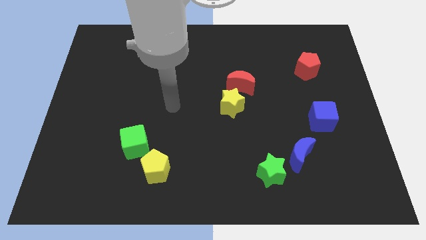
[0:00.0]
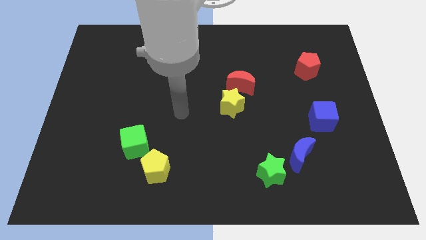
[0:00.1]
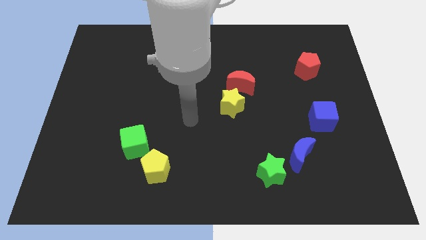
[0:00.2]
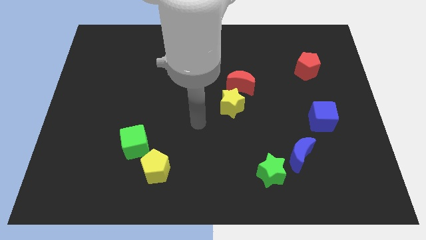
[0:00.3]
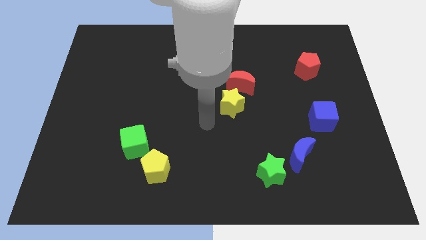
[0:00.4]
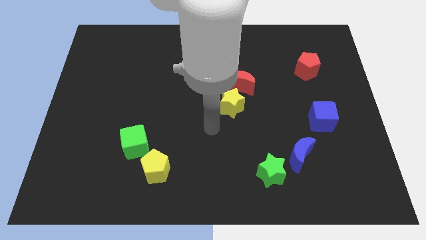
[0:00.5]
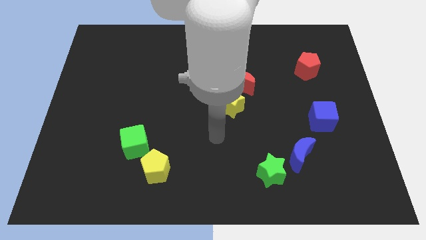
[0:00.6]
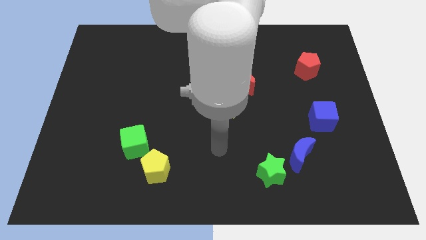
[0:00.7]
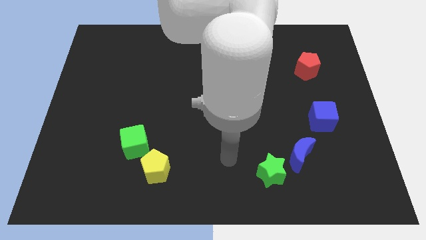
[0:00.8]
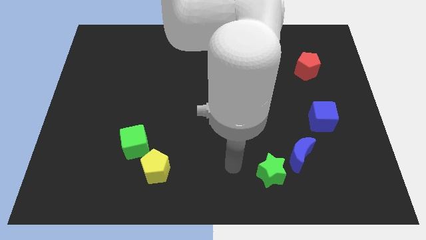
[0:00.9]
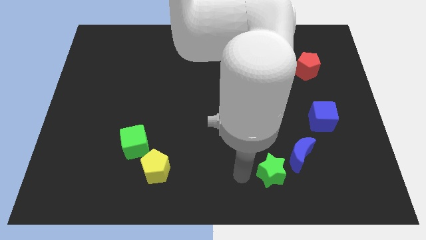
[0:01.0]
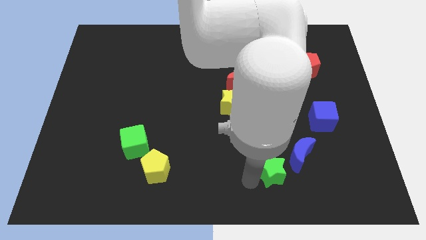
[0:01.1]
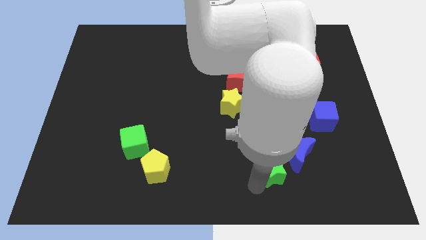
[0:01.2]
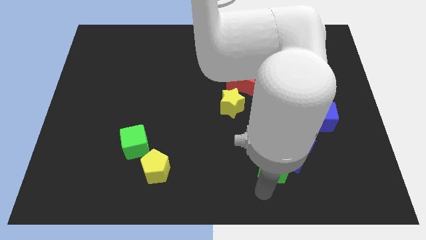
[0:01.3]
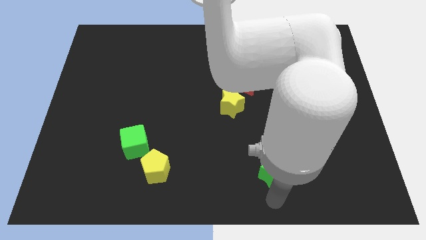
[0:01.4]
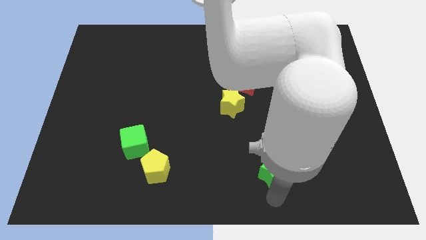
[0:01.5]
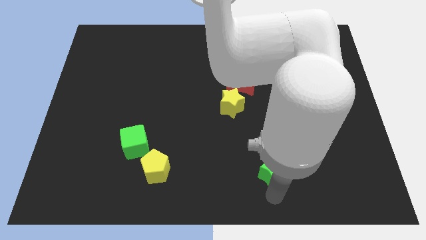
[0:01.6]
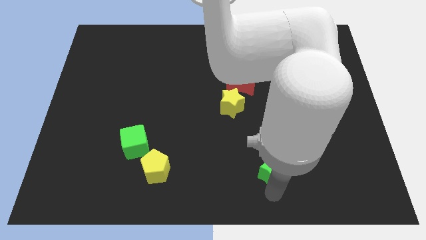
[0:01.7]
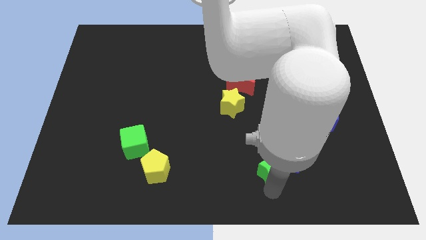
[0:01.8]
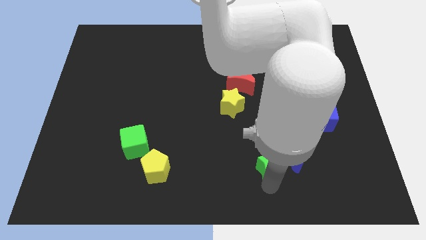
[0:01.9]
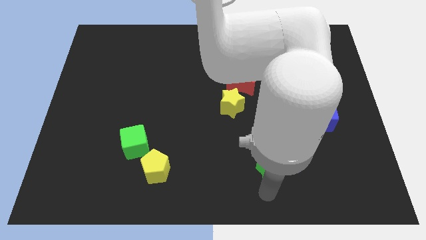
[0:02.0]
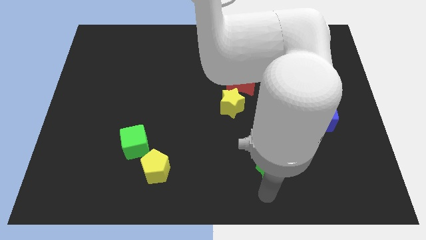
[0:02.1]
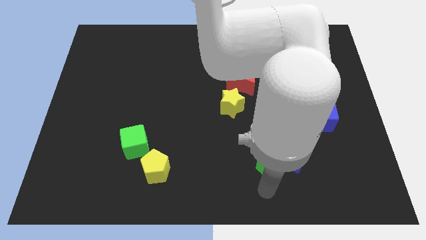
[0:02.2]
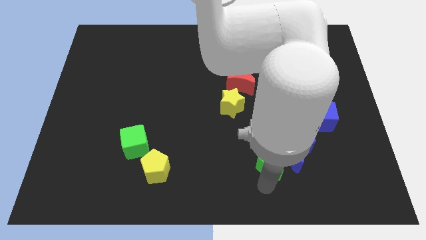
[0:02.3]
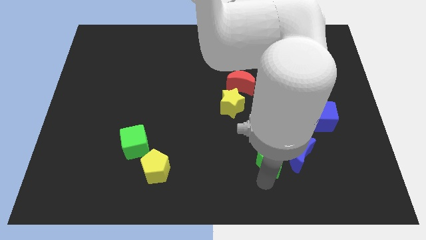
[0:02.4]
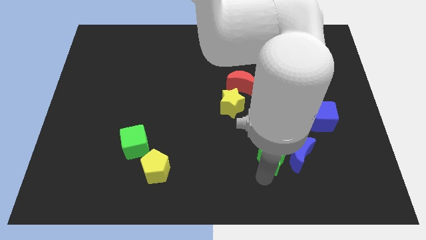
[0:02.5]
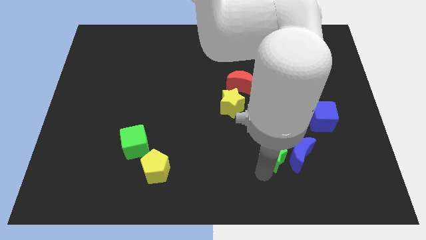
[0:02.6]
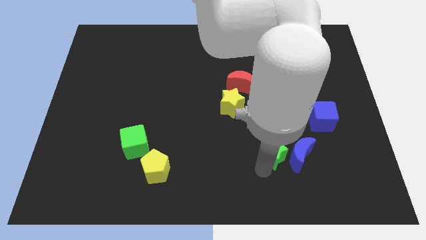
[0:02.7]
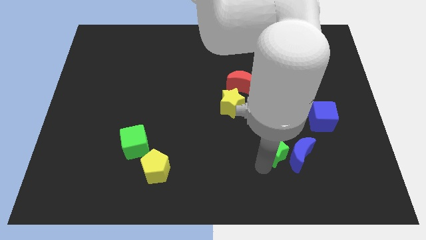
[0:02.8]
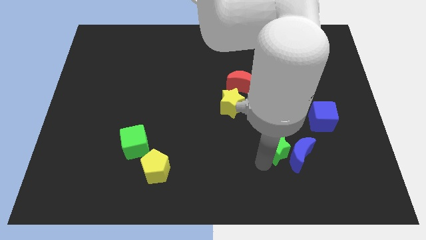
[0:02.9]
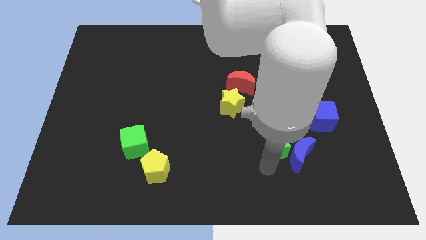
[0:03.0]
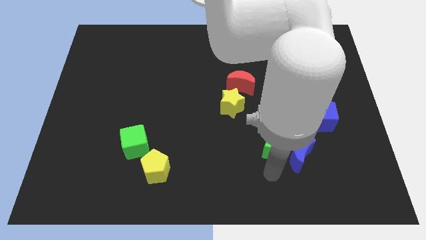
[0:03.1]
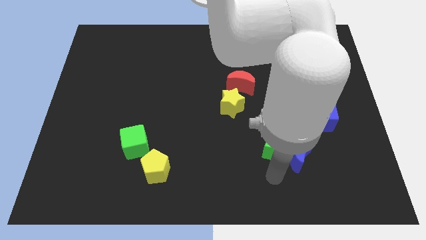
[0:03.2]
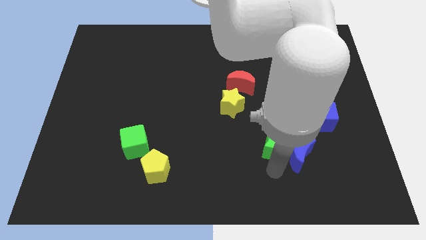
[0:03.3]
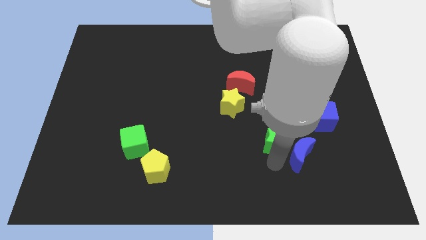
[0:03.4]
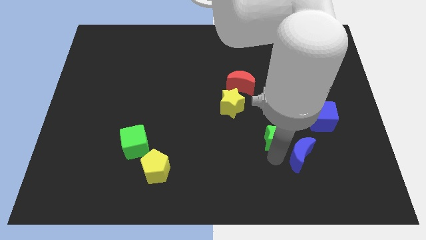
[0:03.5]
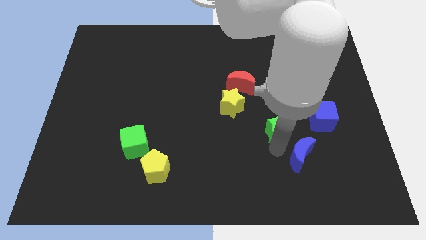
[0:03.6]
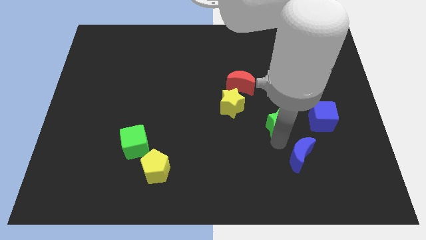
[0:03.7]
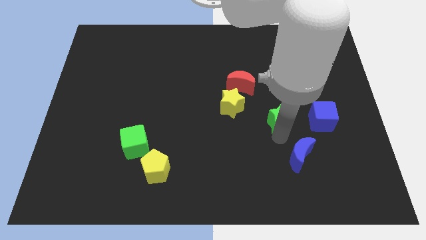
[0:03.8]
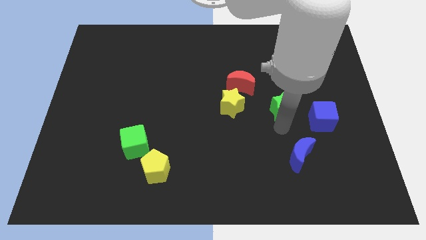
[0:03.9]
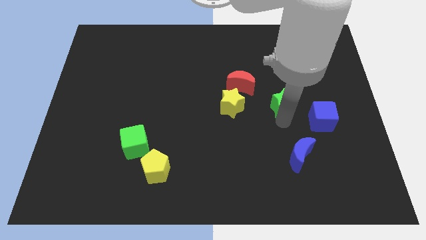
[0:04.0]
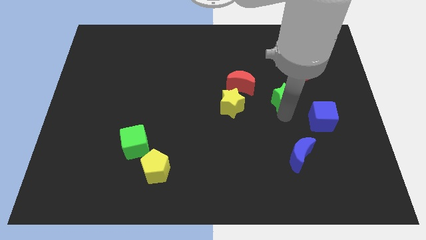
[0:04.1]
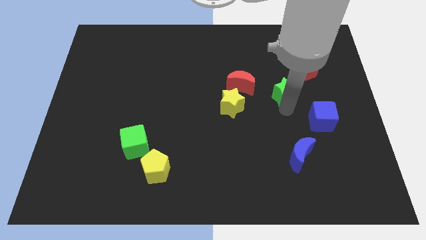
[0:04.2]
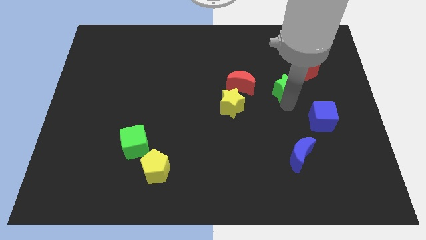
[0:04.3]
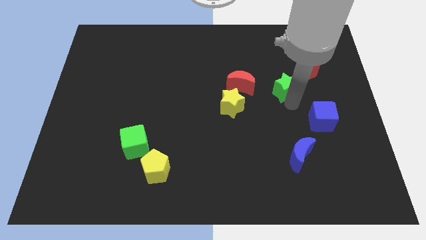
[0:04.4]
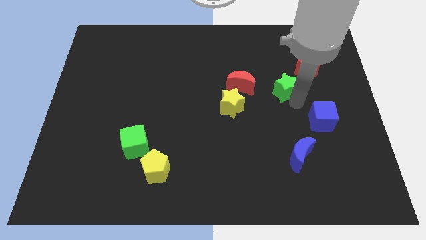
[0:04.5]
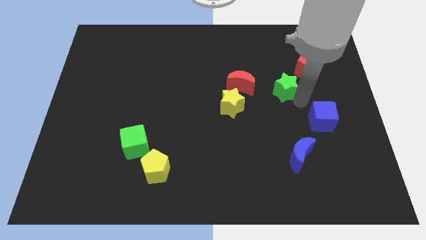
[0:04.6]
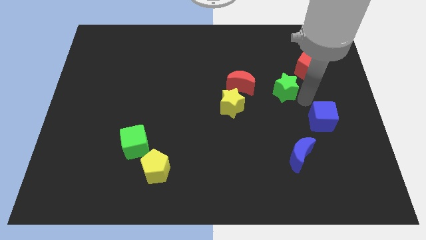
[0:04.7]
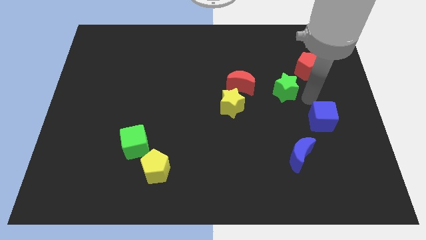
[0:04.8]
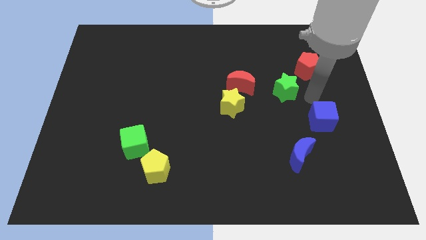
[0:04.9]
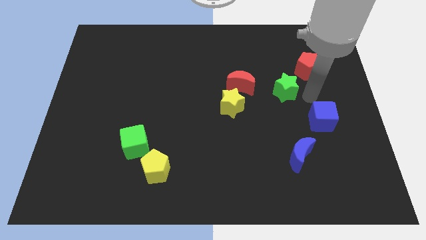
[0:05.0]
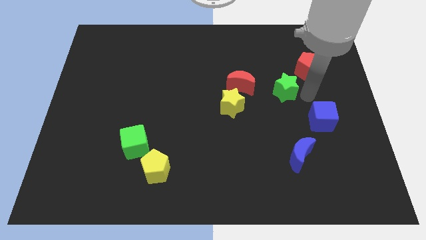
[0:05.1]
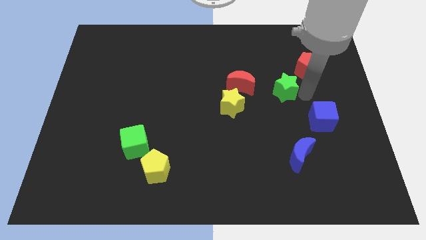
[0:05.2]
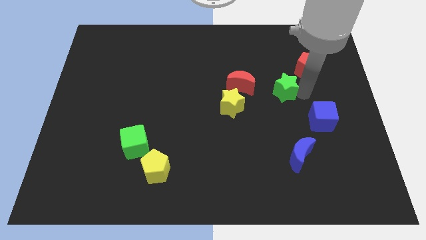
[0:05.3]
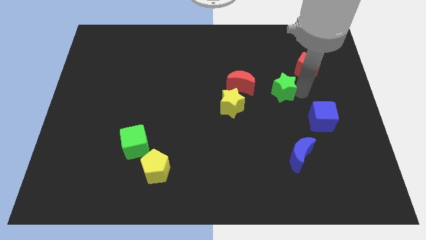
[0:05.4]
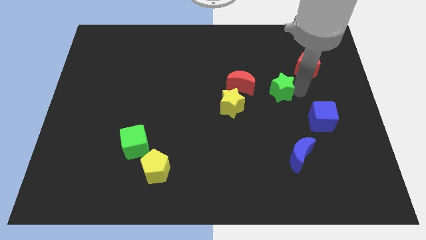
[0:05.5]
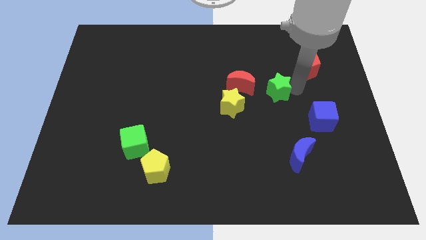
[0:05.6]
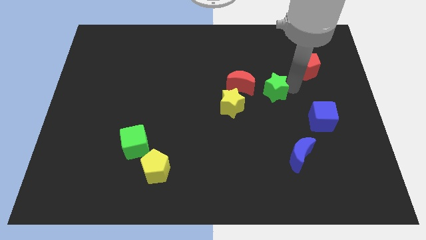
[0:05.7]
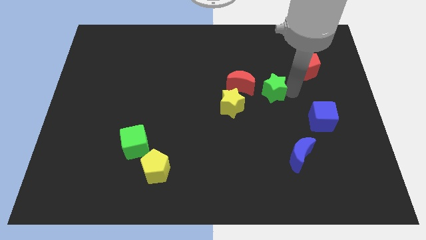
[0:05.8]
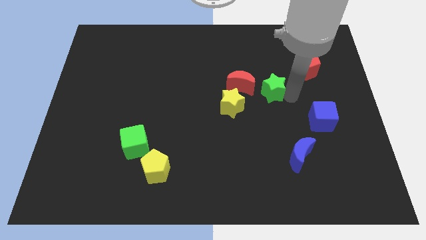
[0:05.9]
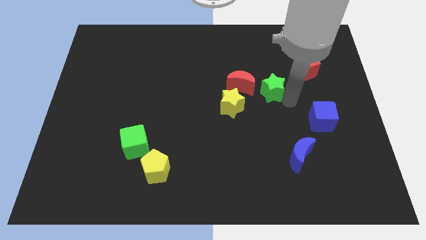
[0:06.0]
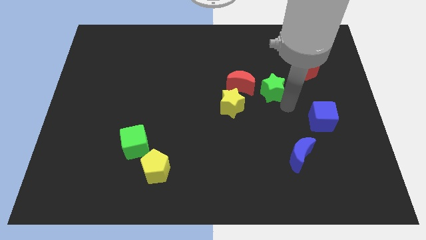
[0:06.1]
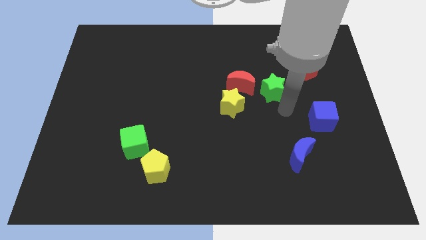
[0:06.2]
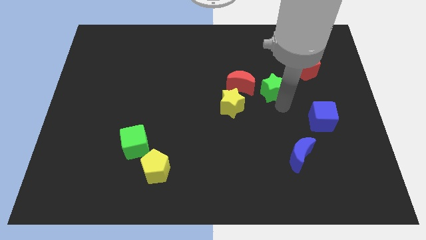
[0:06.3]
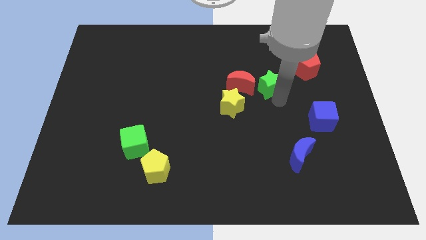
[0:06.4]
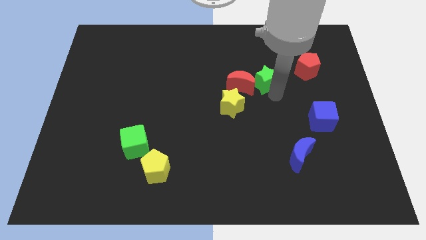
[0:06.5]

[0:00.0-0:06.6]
slide the green star to the top right of the red moon

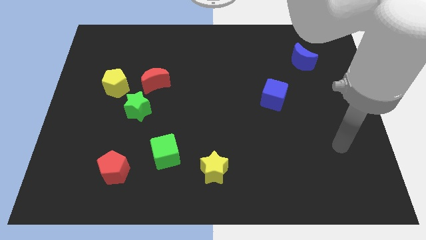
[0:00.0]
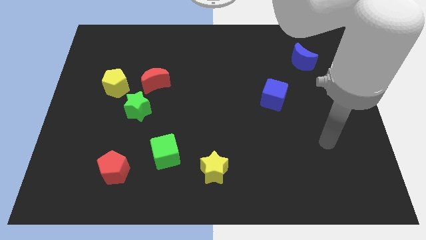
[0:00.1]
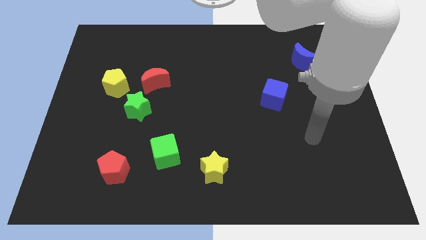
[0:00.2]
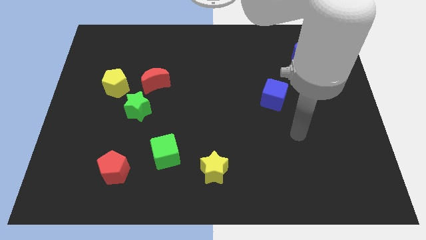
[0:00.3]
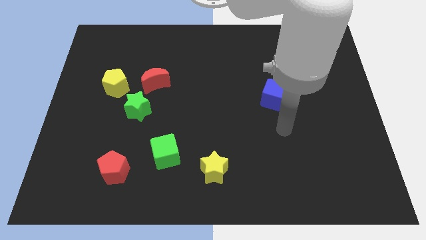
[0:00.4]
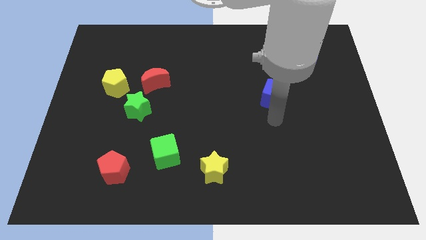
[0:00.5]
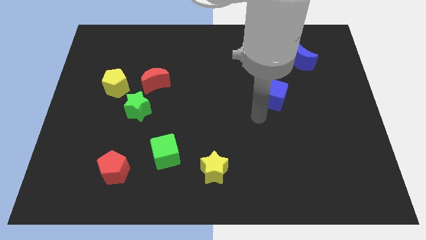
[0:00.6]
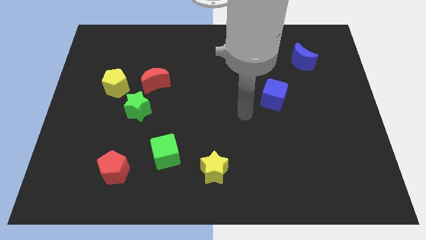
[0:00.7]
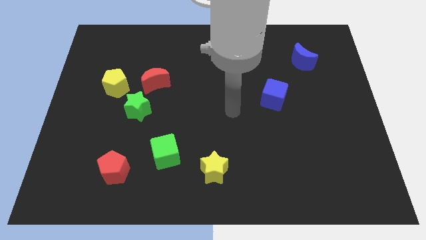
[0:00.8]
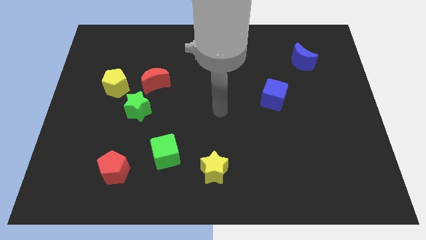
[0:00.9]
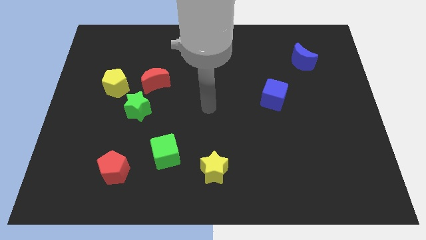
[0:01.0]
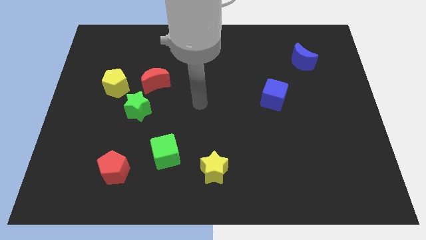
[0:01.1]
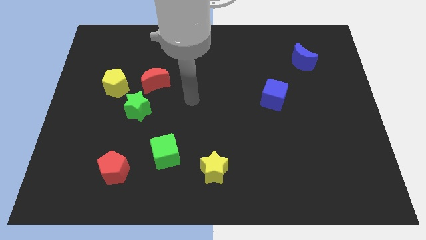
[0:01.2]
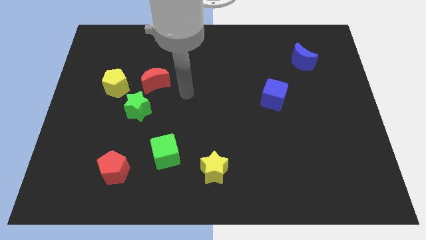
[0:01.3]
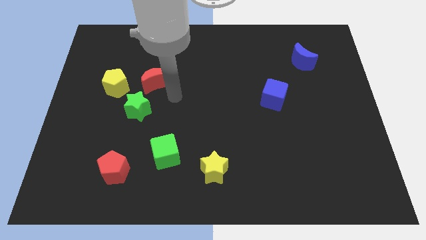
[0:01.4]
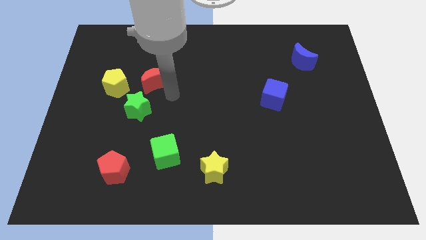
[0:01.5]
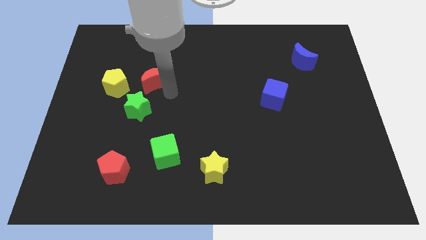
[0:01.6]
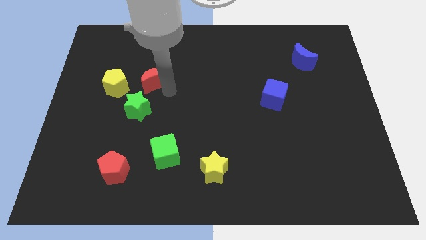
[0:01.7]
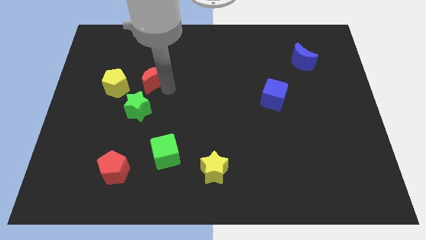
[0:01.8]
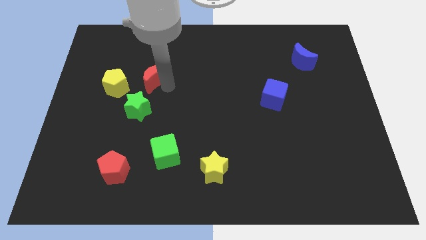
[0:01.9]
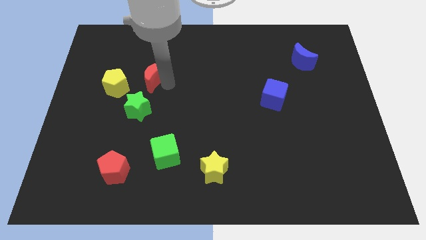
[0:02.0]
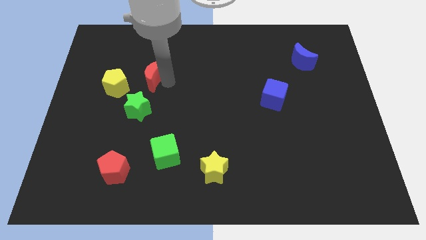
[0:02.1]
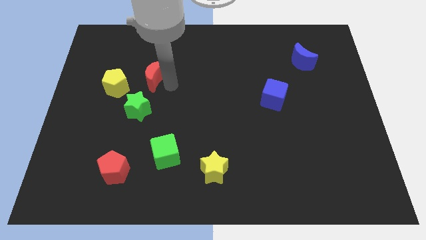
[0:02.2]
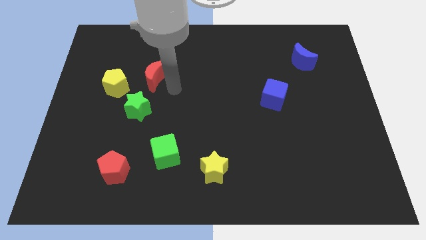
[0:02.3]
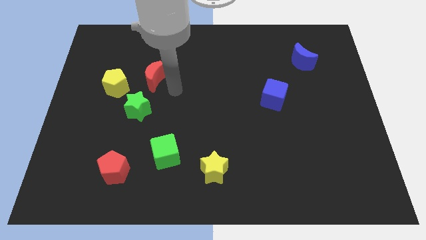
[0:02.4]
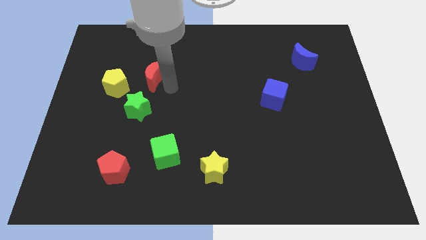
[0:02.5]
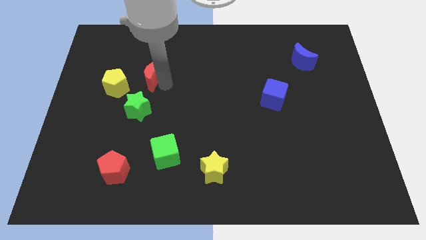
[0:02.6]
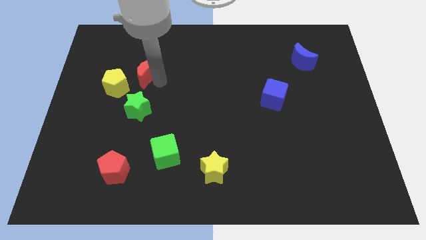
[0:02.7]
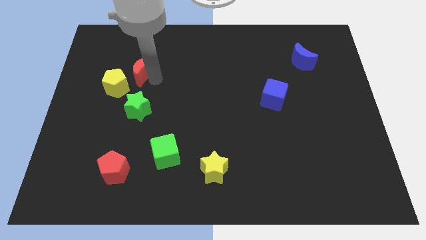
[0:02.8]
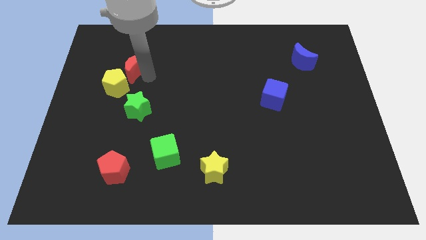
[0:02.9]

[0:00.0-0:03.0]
push the red moon above the yellow pentagon
